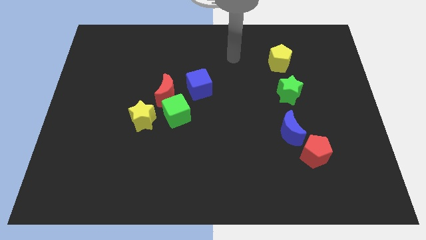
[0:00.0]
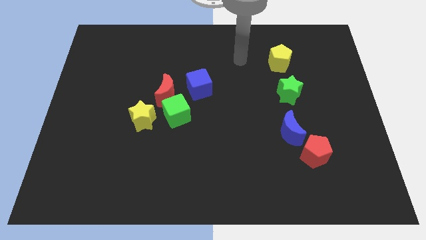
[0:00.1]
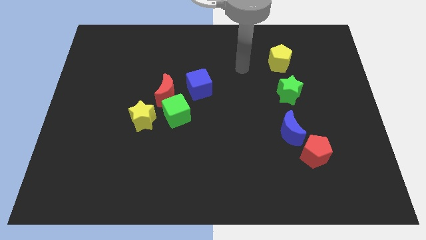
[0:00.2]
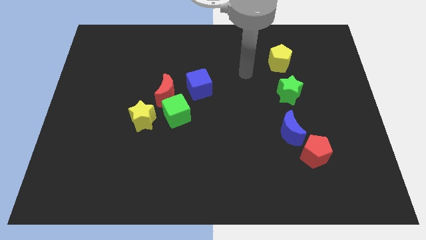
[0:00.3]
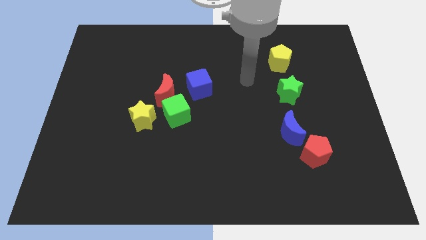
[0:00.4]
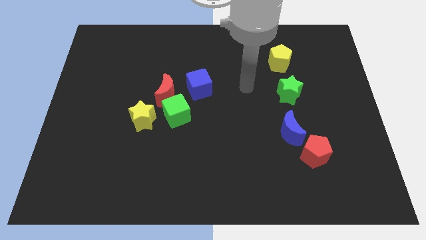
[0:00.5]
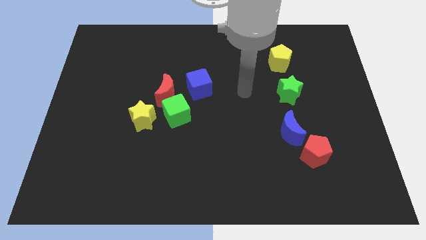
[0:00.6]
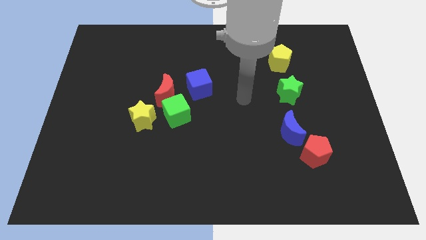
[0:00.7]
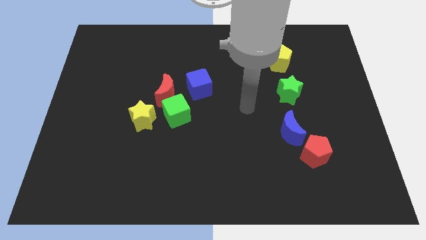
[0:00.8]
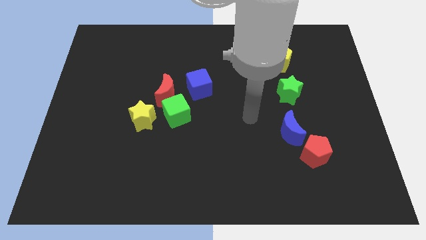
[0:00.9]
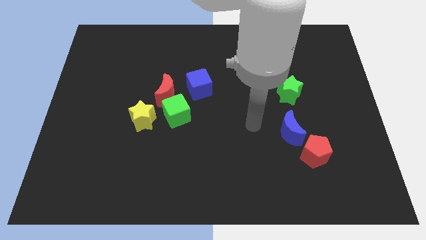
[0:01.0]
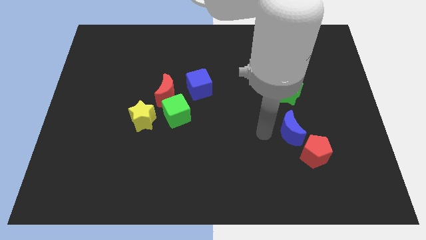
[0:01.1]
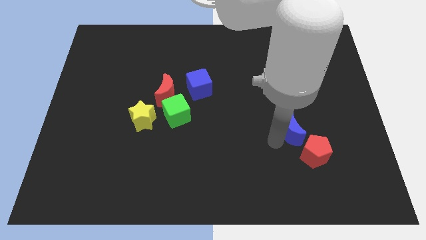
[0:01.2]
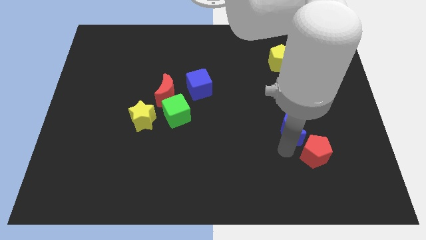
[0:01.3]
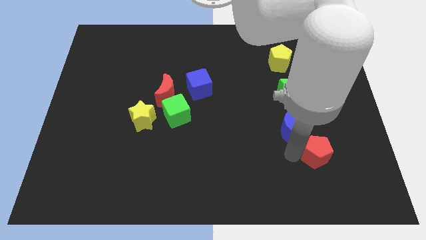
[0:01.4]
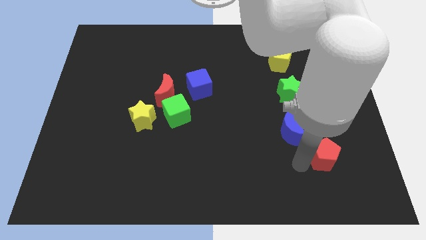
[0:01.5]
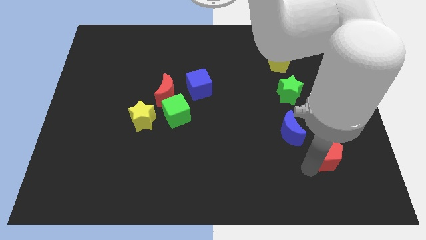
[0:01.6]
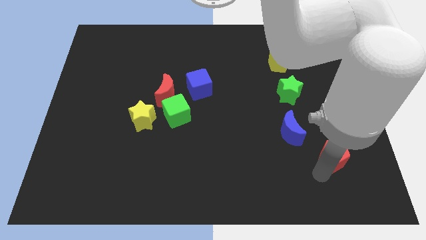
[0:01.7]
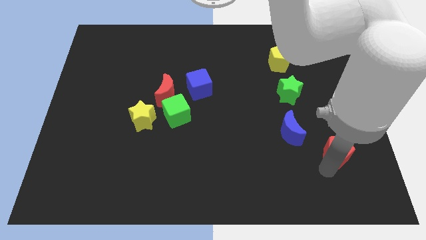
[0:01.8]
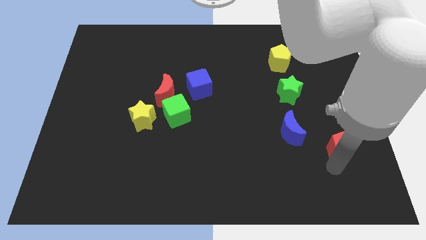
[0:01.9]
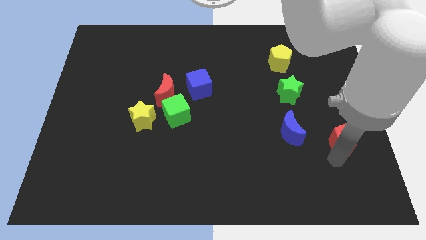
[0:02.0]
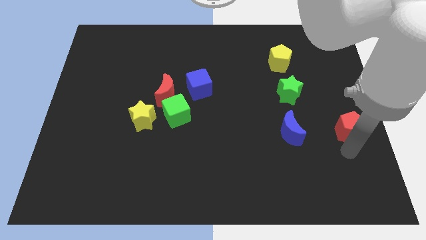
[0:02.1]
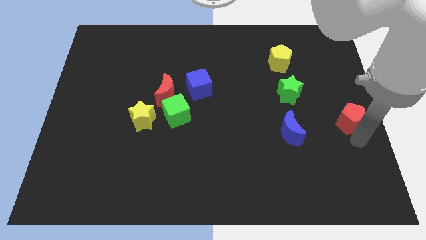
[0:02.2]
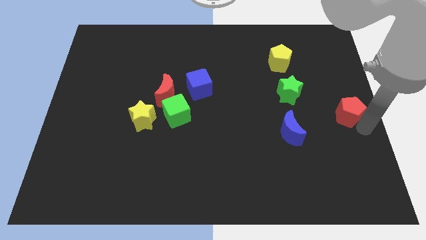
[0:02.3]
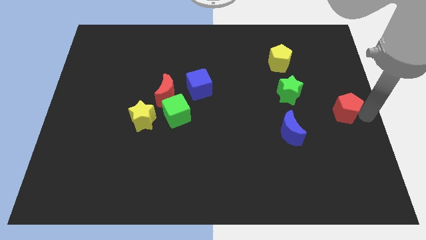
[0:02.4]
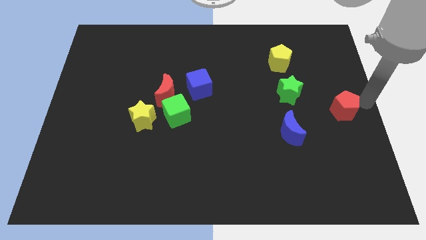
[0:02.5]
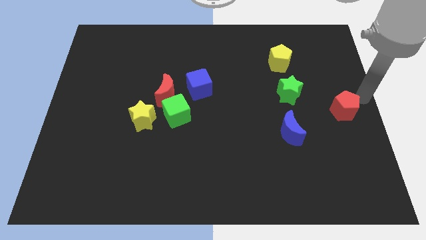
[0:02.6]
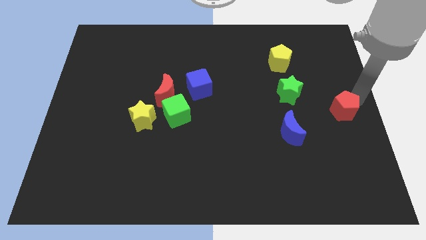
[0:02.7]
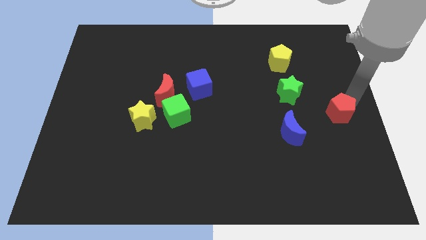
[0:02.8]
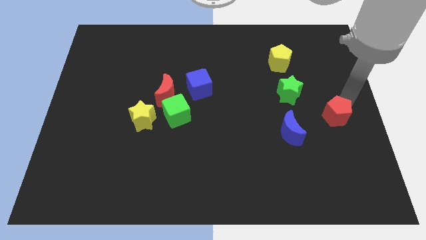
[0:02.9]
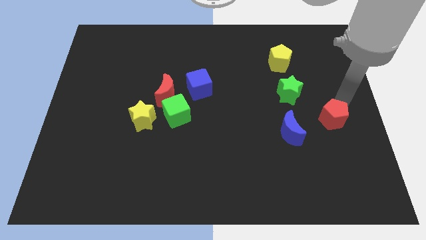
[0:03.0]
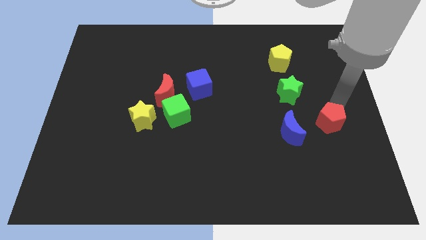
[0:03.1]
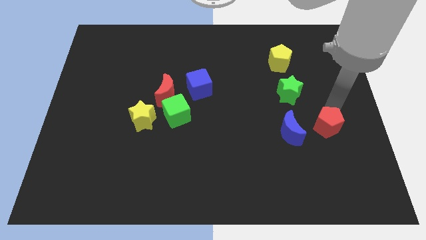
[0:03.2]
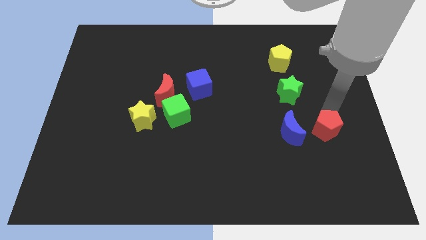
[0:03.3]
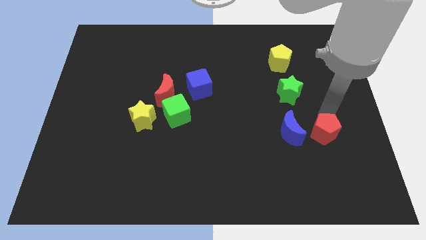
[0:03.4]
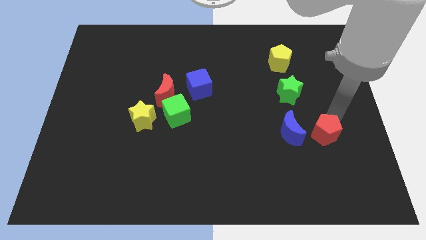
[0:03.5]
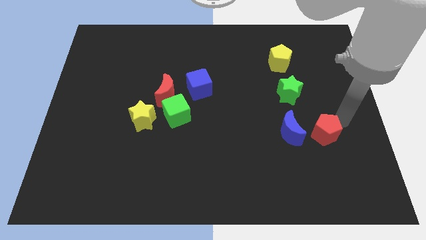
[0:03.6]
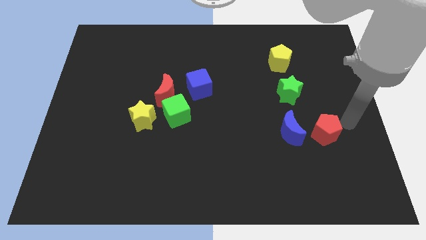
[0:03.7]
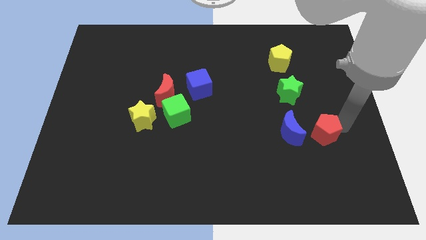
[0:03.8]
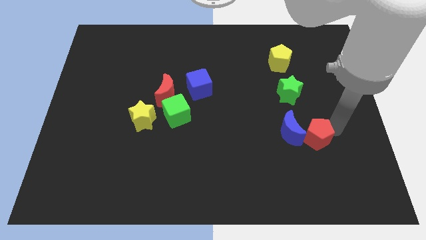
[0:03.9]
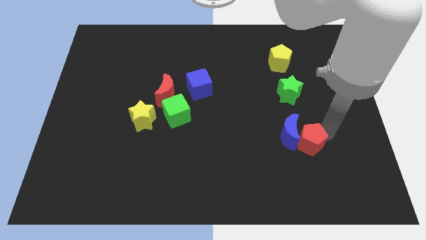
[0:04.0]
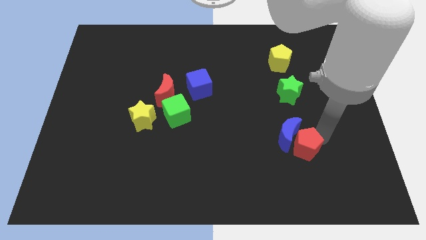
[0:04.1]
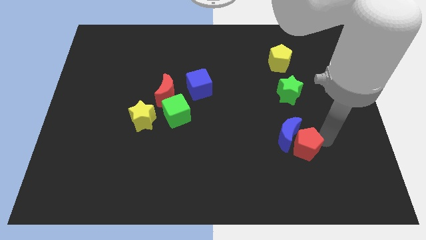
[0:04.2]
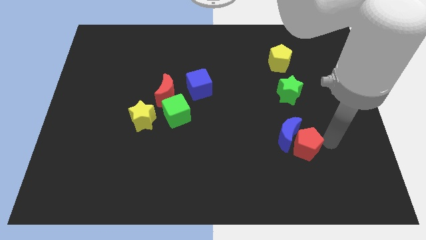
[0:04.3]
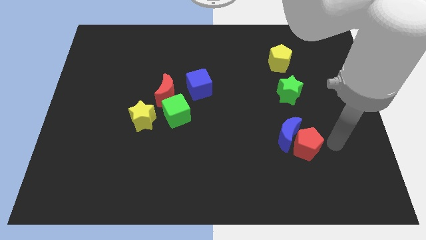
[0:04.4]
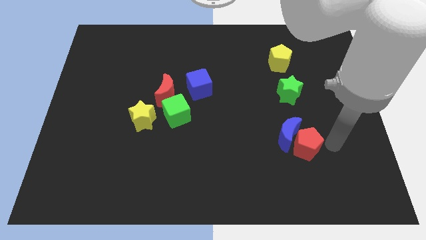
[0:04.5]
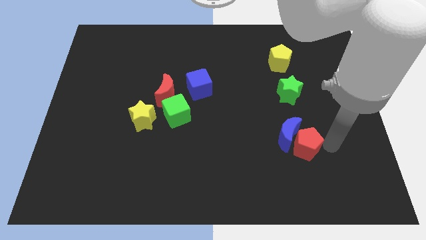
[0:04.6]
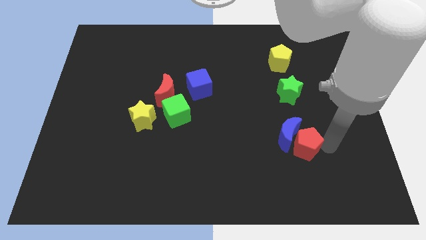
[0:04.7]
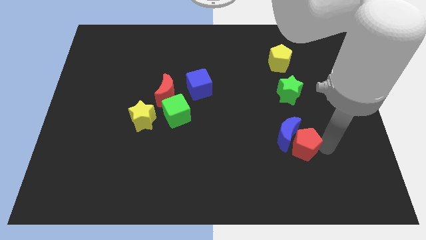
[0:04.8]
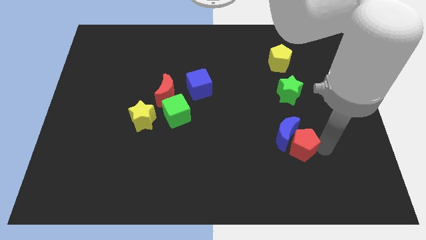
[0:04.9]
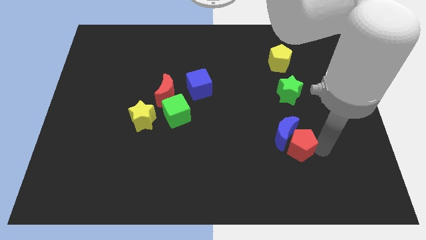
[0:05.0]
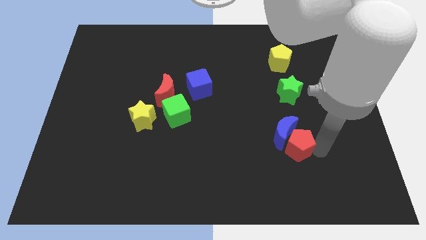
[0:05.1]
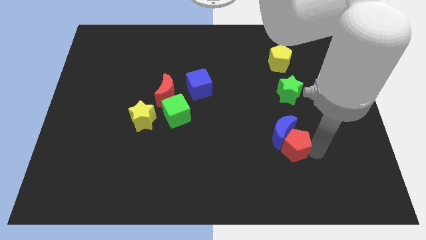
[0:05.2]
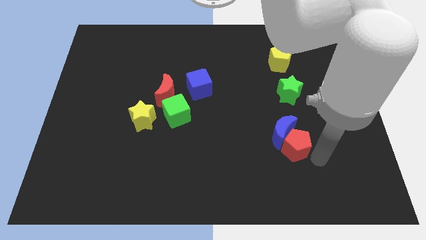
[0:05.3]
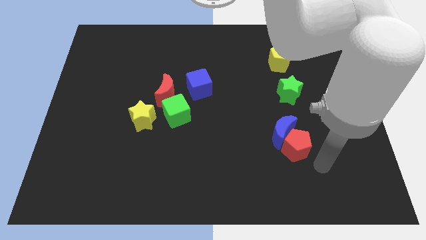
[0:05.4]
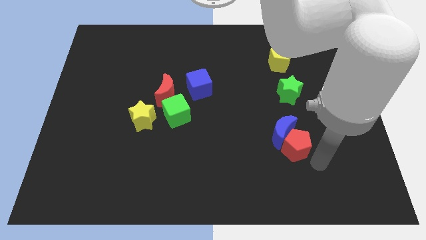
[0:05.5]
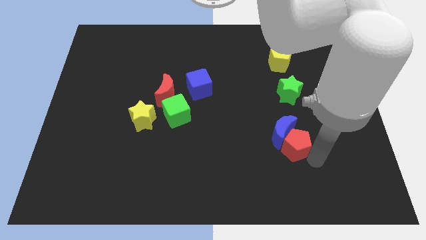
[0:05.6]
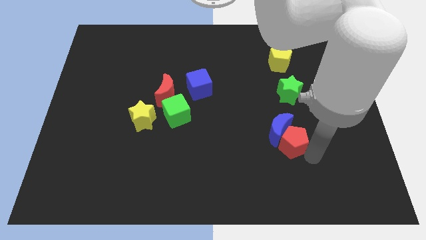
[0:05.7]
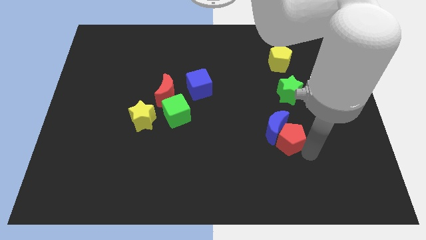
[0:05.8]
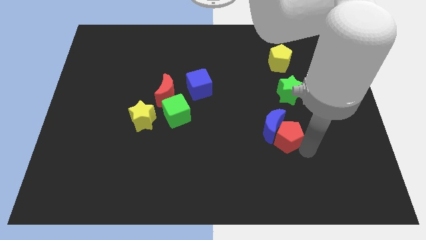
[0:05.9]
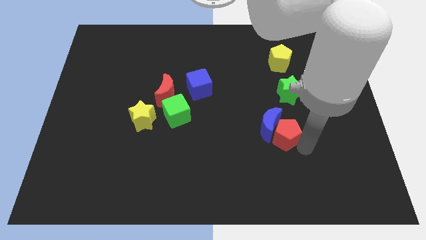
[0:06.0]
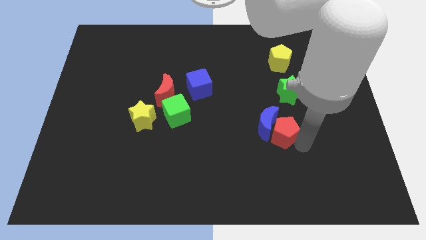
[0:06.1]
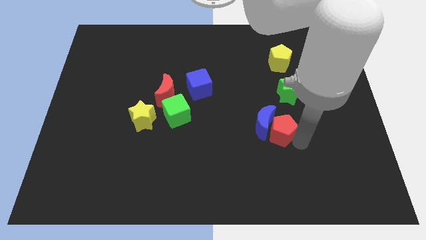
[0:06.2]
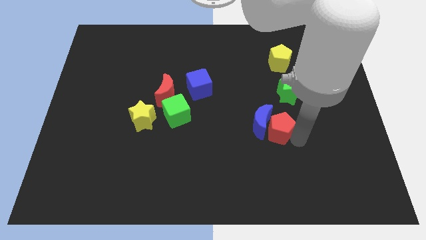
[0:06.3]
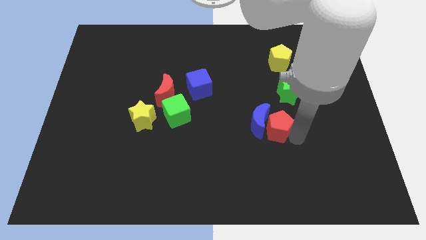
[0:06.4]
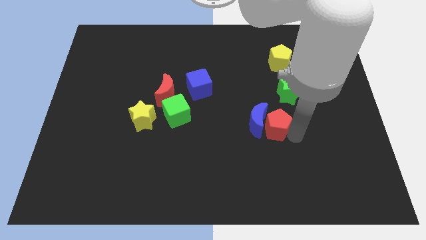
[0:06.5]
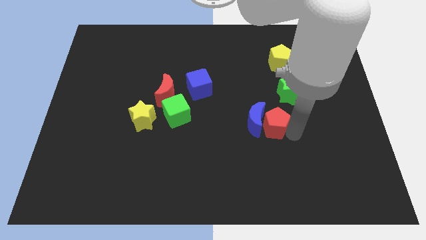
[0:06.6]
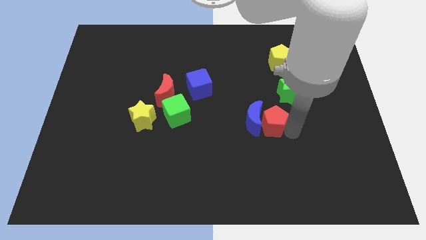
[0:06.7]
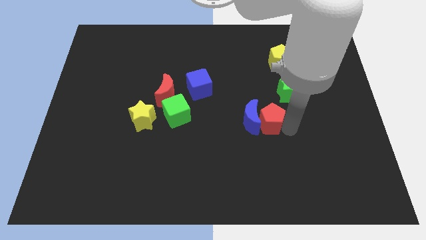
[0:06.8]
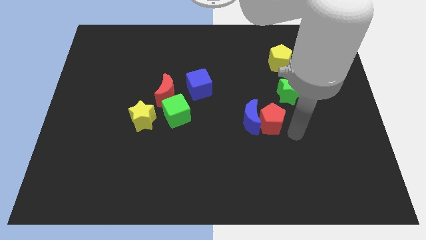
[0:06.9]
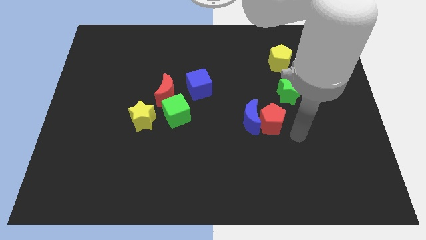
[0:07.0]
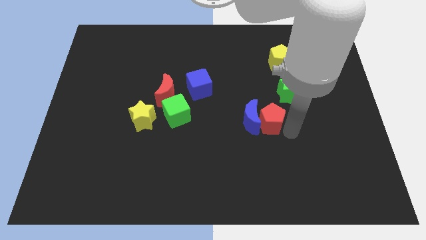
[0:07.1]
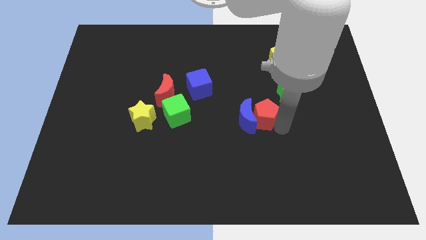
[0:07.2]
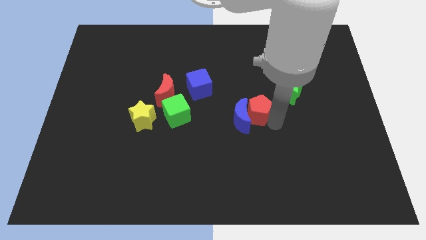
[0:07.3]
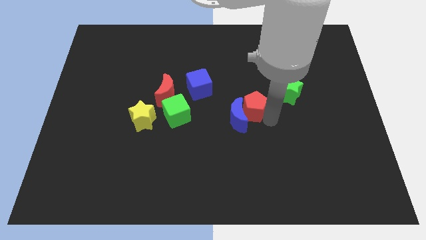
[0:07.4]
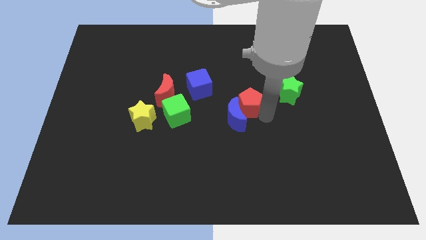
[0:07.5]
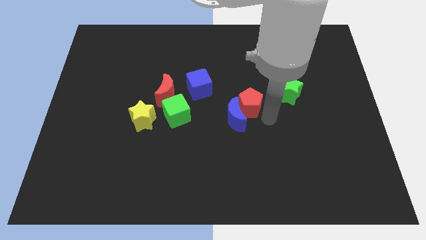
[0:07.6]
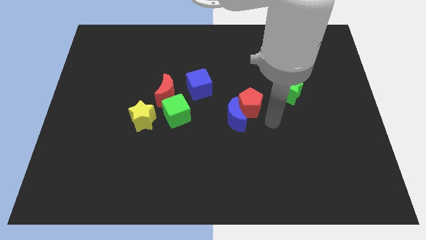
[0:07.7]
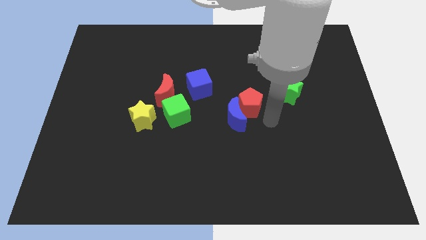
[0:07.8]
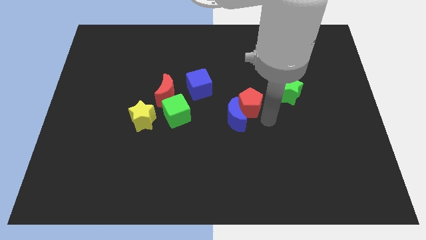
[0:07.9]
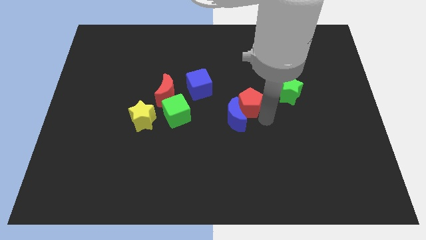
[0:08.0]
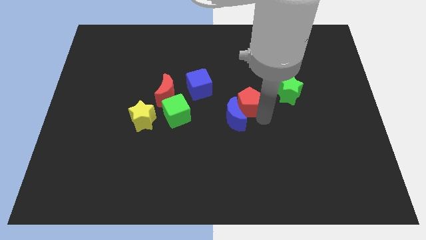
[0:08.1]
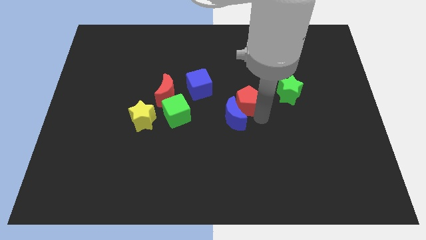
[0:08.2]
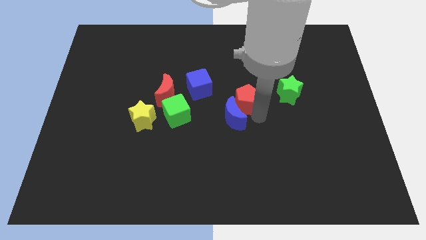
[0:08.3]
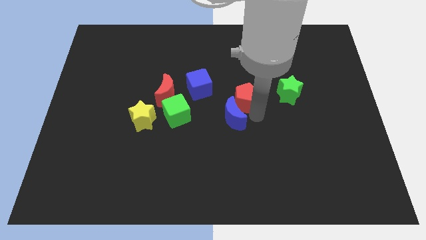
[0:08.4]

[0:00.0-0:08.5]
push the red pentagon diagonally up and to the left
